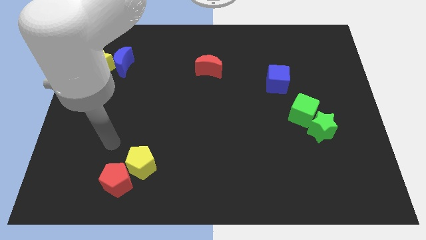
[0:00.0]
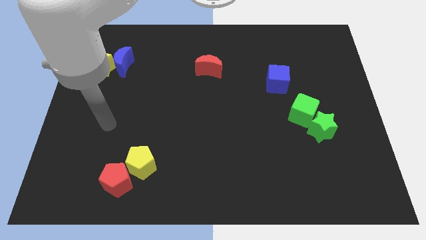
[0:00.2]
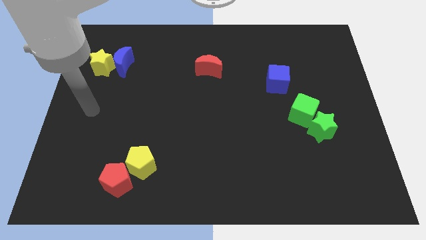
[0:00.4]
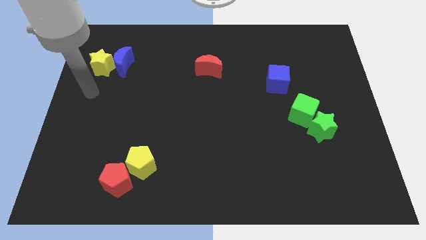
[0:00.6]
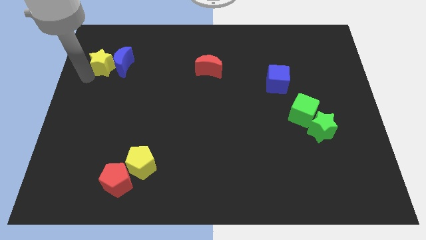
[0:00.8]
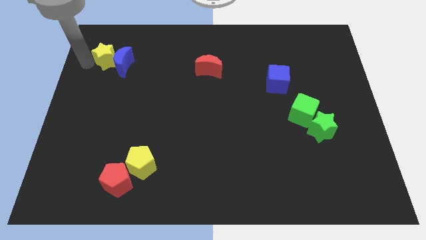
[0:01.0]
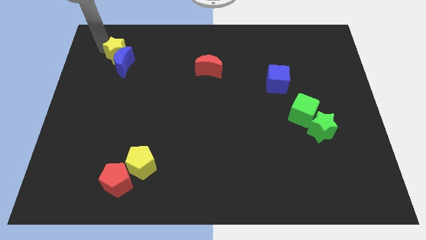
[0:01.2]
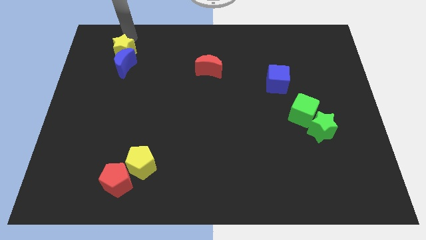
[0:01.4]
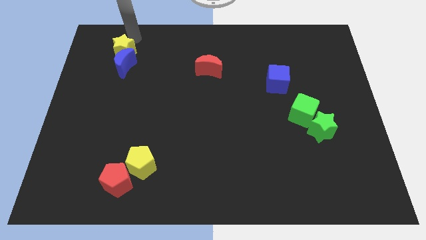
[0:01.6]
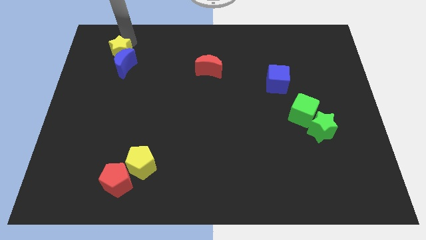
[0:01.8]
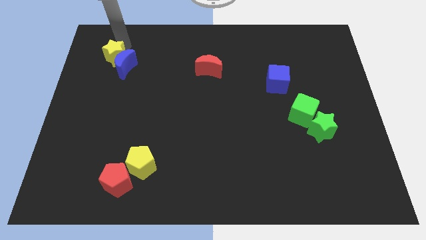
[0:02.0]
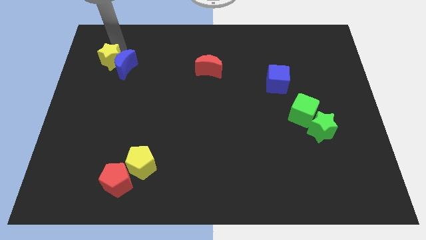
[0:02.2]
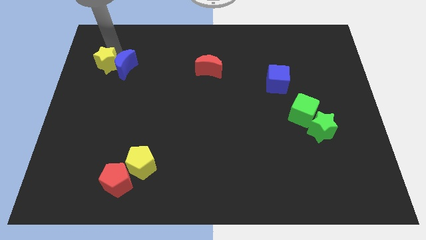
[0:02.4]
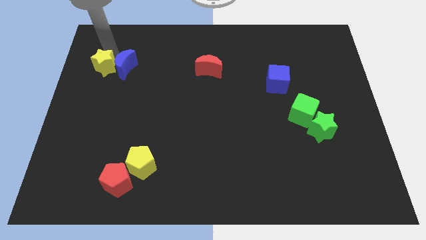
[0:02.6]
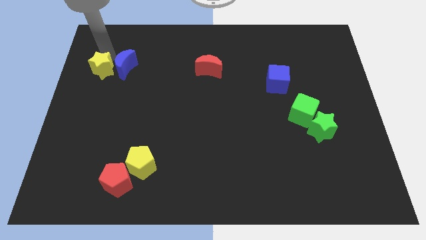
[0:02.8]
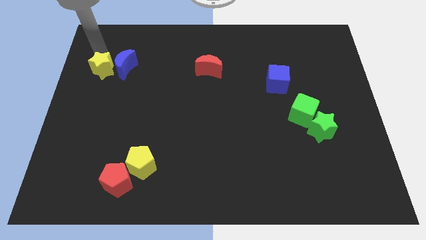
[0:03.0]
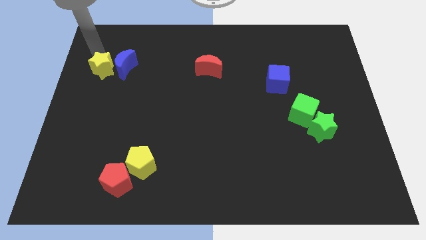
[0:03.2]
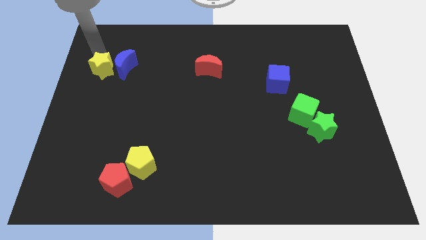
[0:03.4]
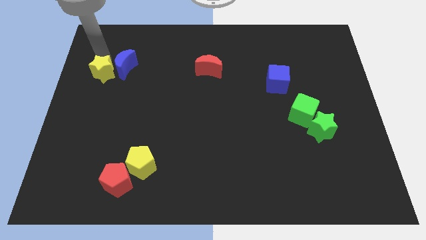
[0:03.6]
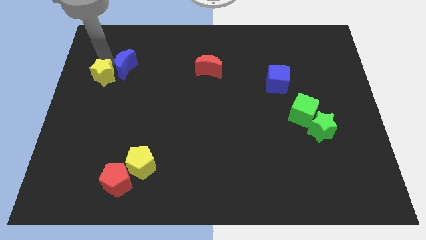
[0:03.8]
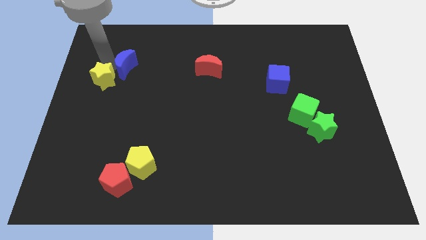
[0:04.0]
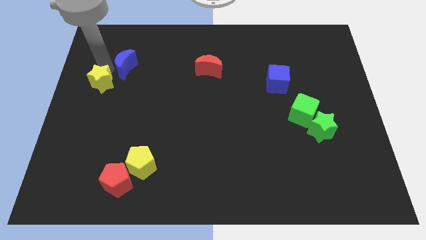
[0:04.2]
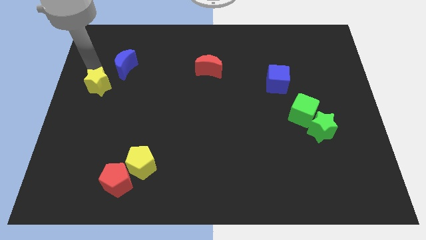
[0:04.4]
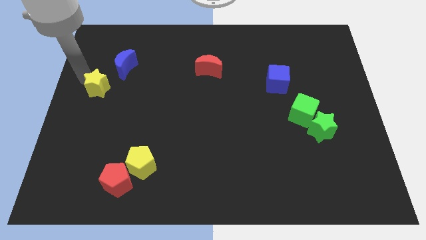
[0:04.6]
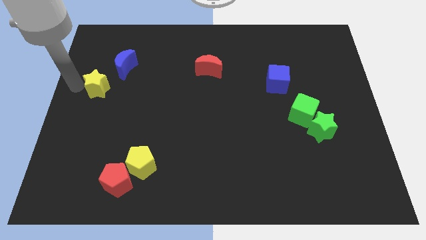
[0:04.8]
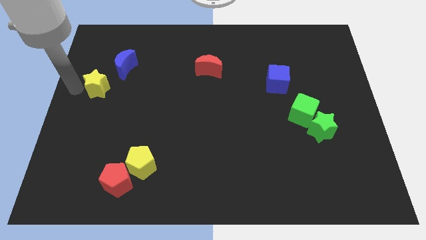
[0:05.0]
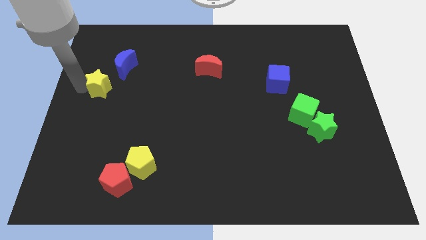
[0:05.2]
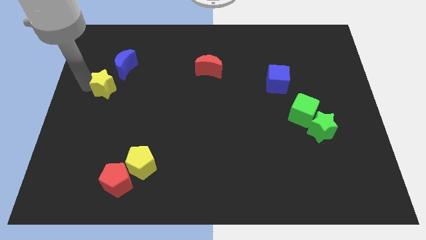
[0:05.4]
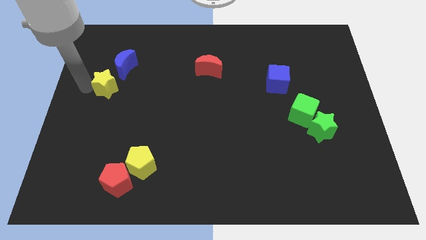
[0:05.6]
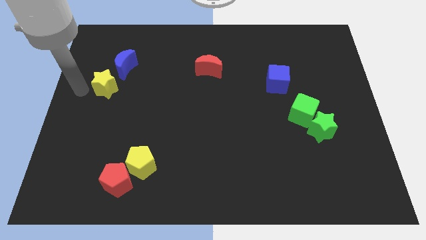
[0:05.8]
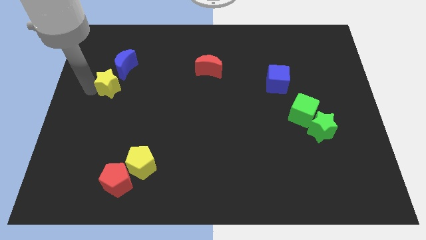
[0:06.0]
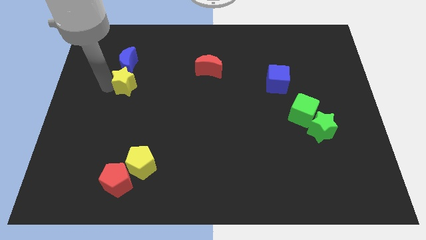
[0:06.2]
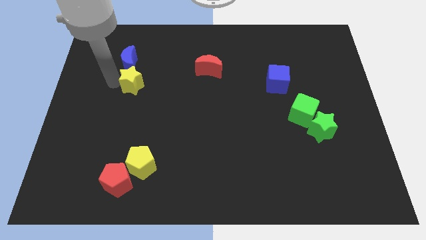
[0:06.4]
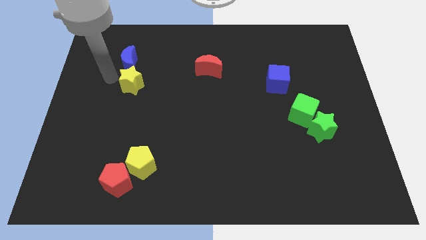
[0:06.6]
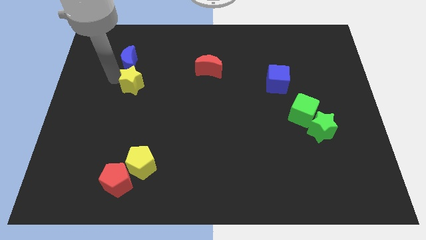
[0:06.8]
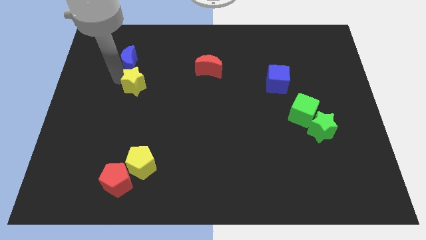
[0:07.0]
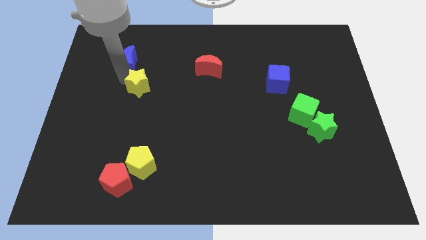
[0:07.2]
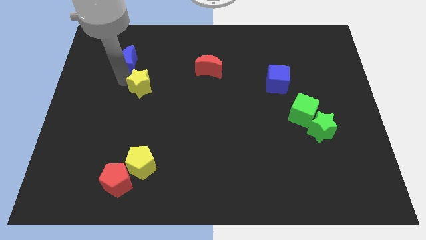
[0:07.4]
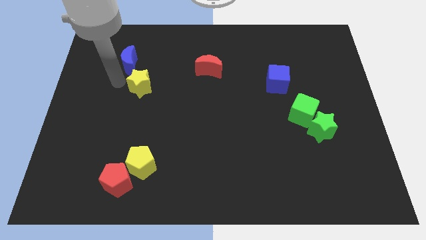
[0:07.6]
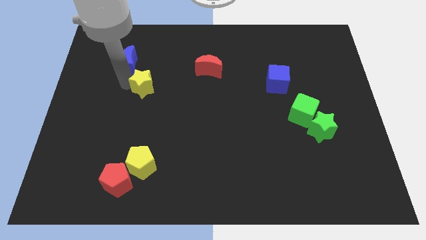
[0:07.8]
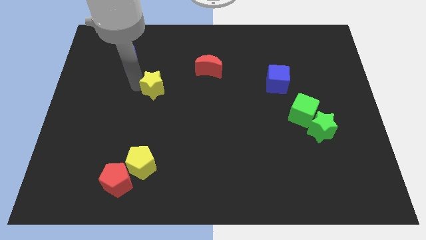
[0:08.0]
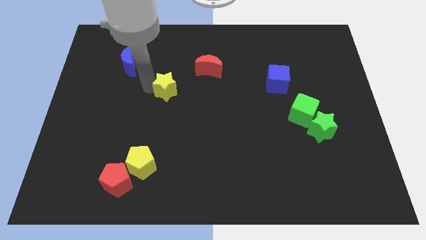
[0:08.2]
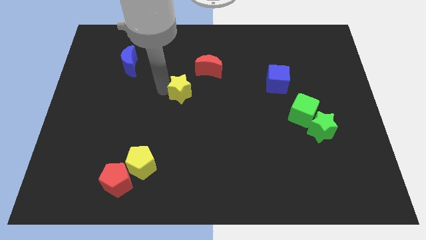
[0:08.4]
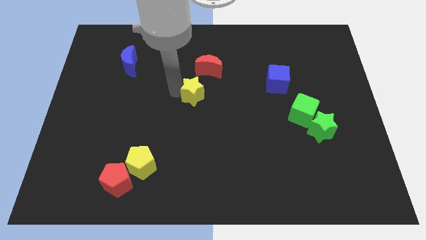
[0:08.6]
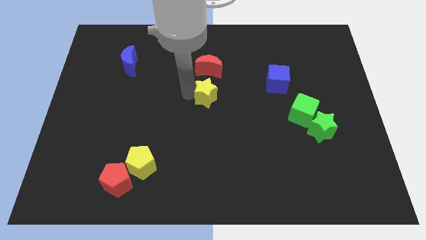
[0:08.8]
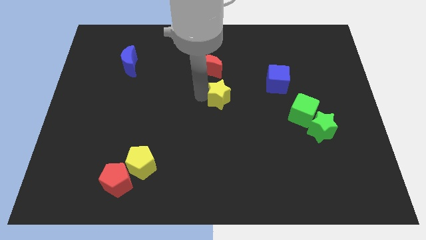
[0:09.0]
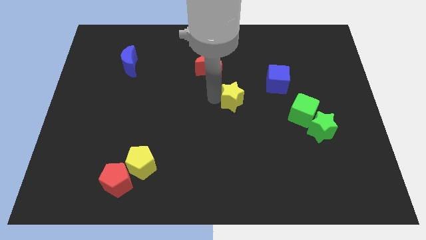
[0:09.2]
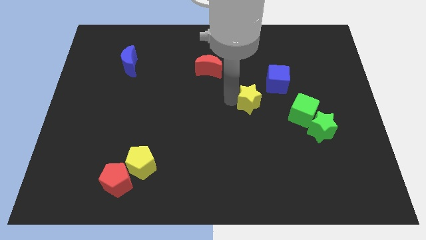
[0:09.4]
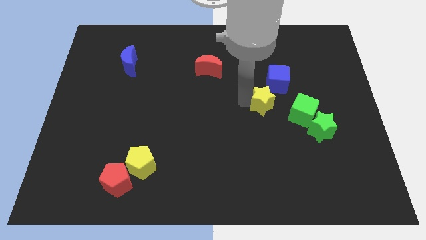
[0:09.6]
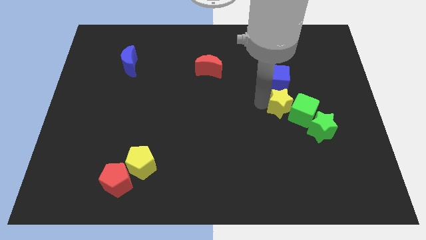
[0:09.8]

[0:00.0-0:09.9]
move the yellow star next to the green cube

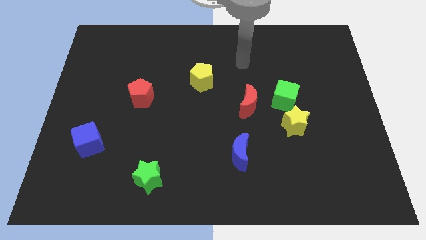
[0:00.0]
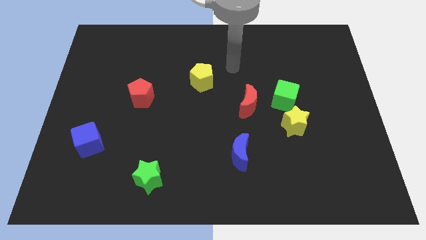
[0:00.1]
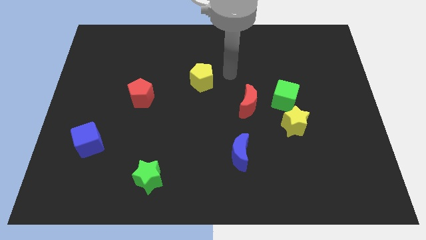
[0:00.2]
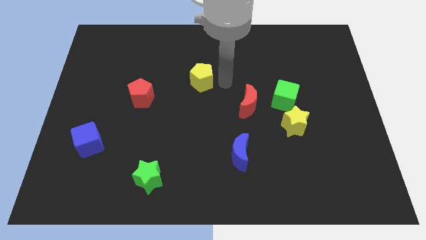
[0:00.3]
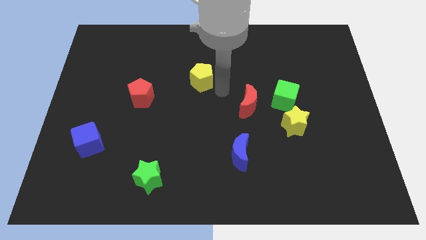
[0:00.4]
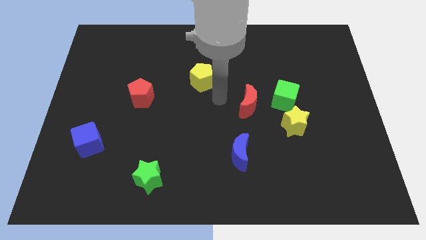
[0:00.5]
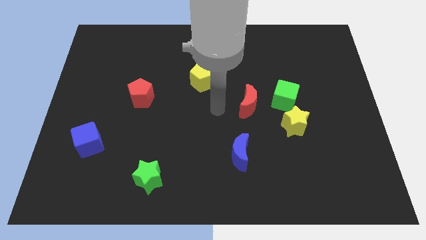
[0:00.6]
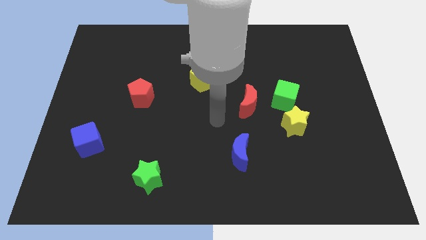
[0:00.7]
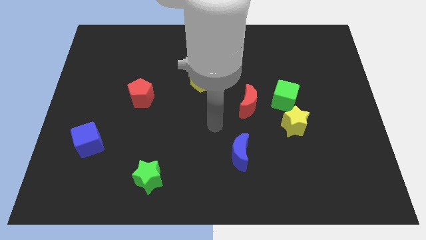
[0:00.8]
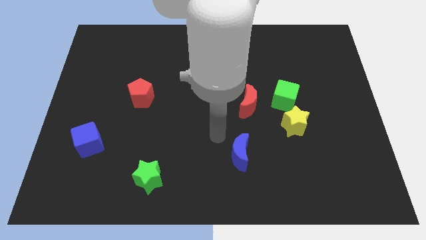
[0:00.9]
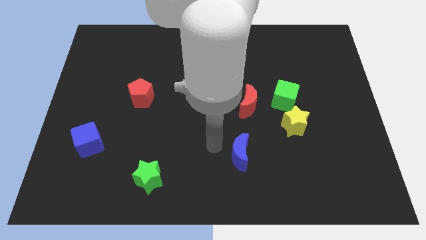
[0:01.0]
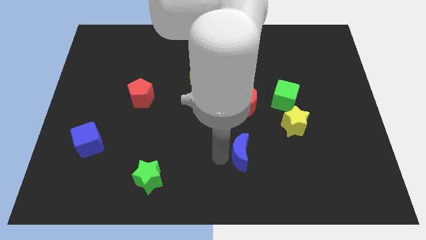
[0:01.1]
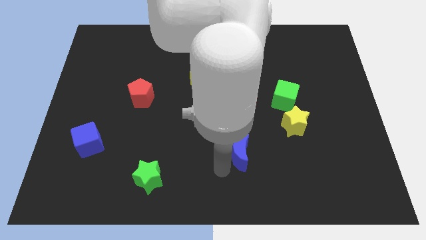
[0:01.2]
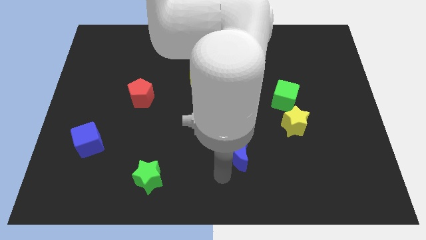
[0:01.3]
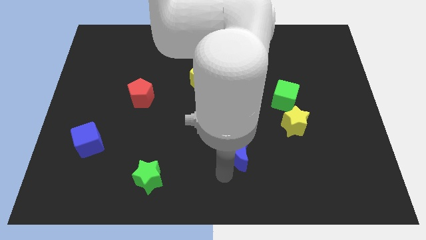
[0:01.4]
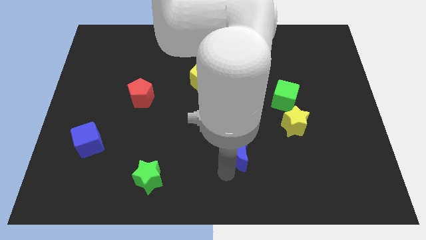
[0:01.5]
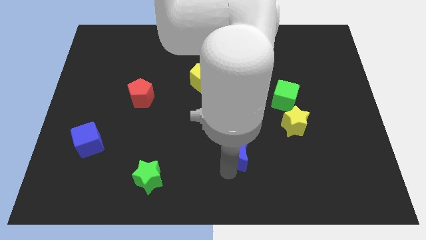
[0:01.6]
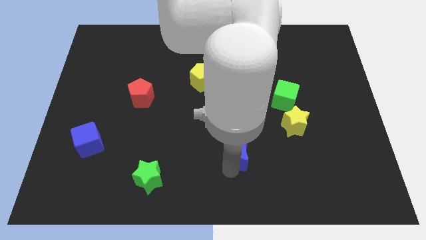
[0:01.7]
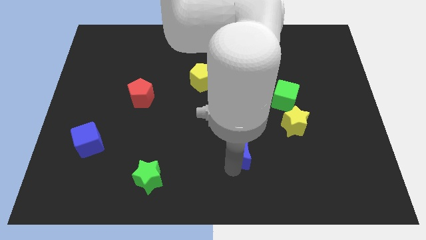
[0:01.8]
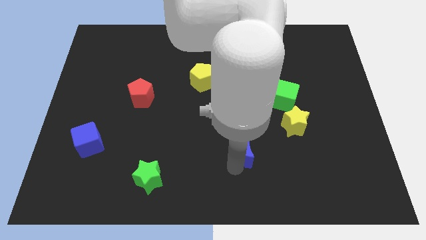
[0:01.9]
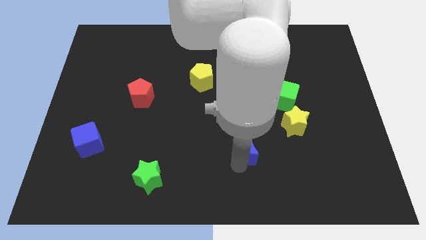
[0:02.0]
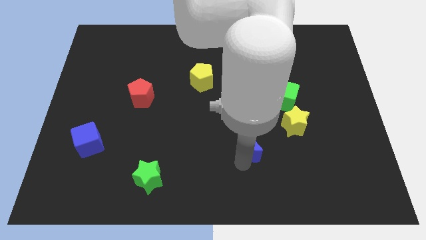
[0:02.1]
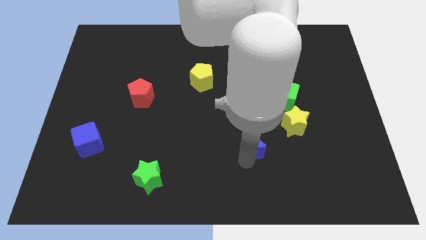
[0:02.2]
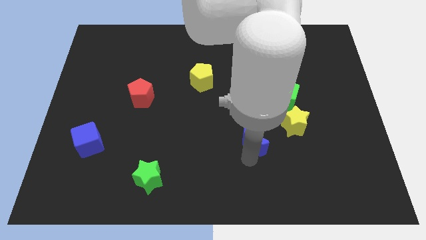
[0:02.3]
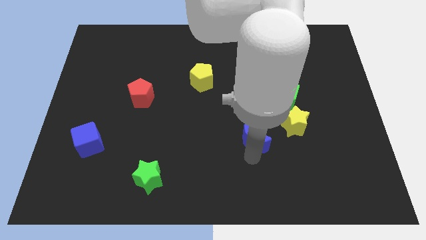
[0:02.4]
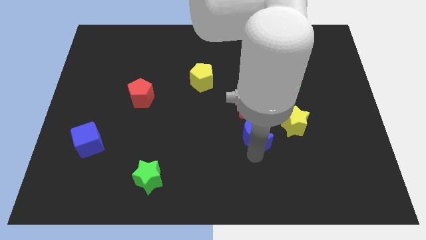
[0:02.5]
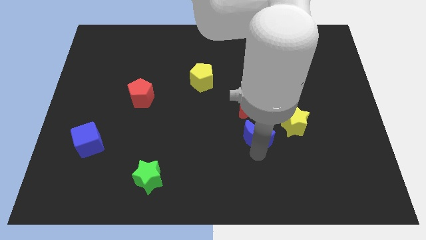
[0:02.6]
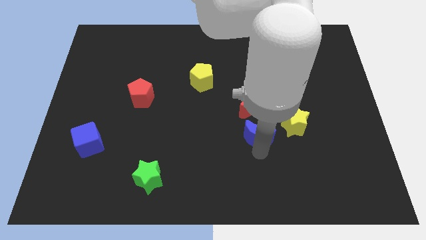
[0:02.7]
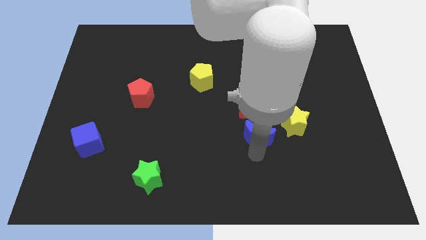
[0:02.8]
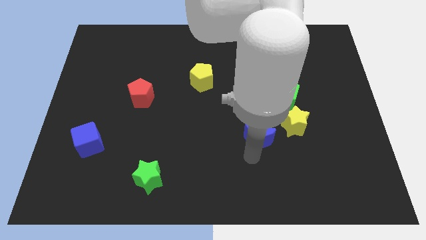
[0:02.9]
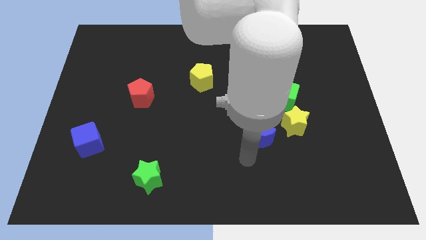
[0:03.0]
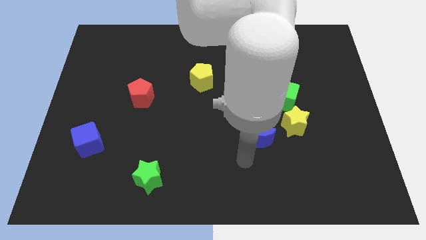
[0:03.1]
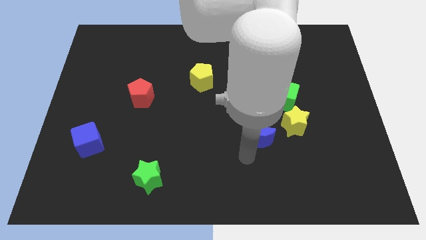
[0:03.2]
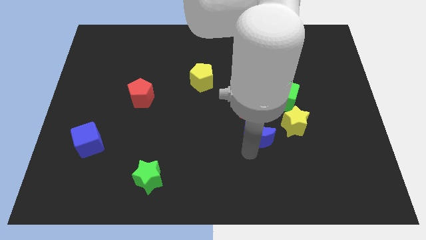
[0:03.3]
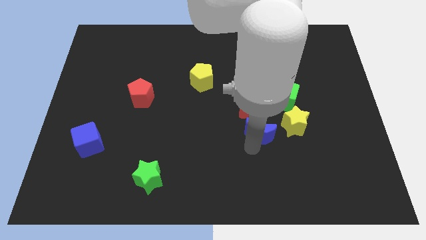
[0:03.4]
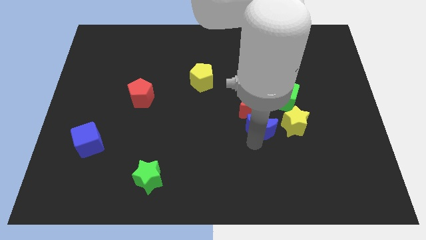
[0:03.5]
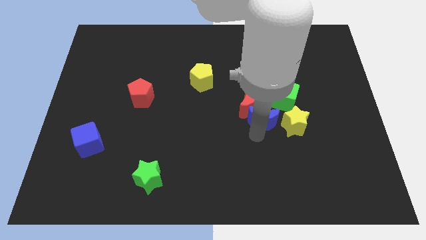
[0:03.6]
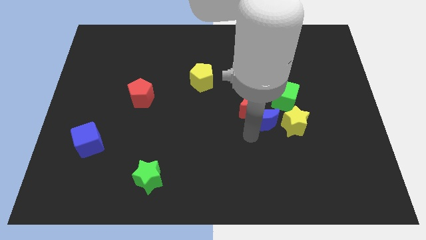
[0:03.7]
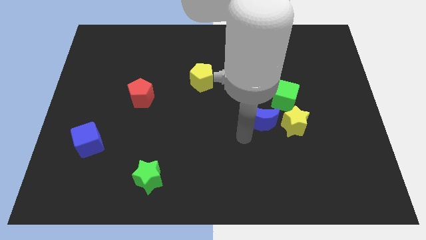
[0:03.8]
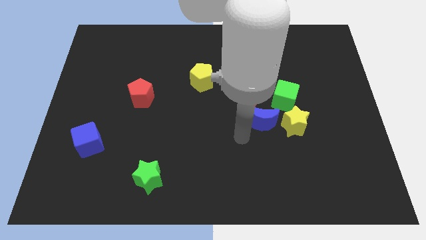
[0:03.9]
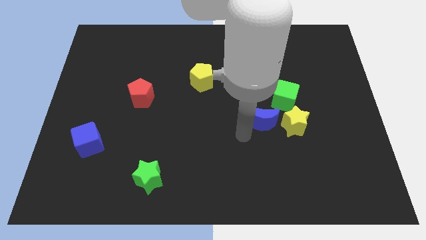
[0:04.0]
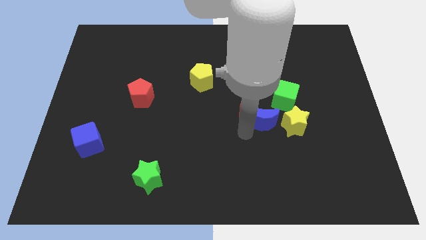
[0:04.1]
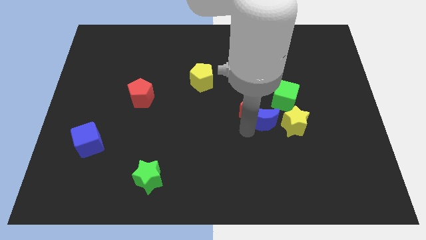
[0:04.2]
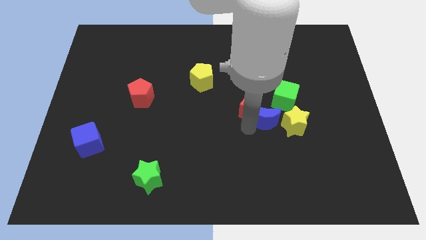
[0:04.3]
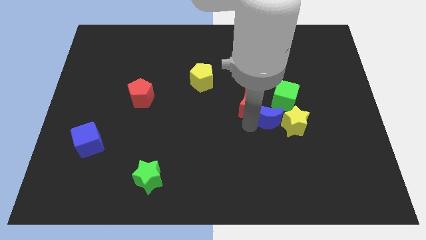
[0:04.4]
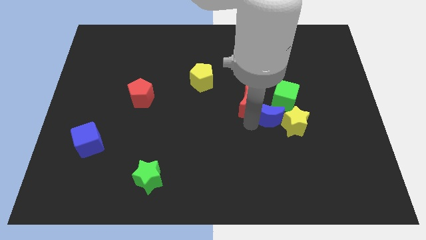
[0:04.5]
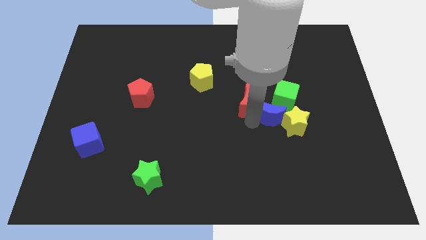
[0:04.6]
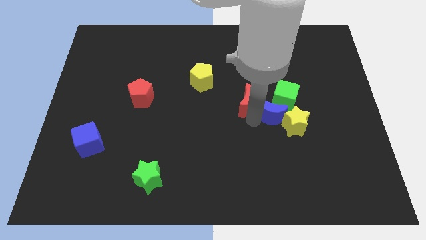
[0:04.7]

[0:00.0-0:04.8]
put the blue moon close to the green cube
